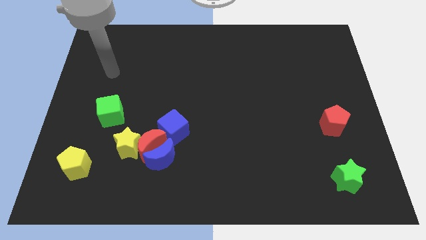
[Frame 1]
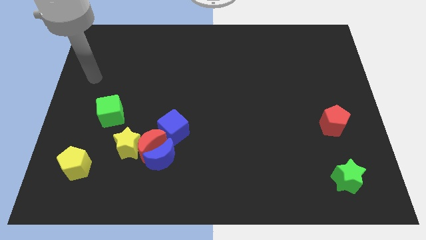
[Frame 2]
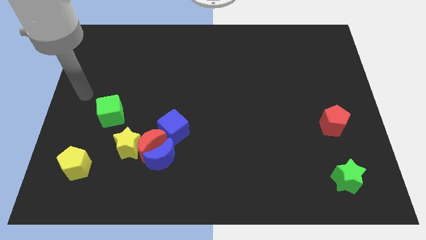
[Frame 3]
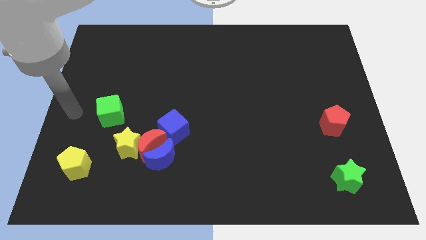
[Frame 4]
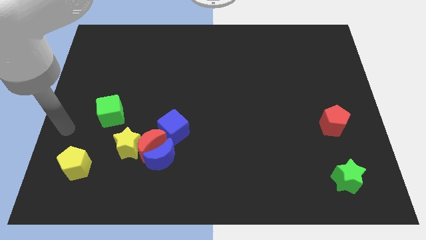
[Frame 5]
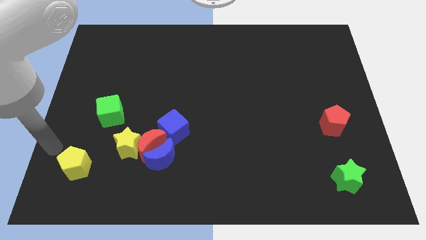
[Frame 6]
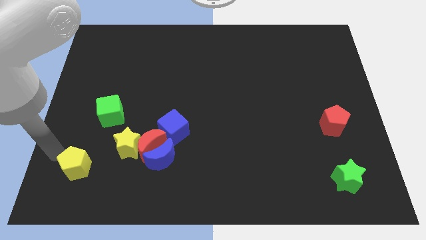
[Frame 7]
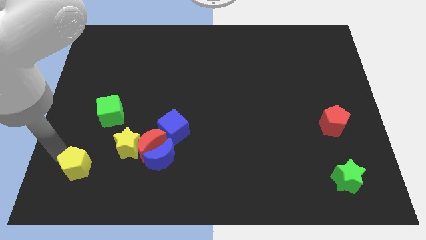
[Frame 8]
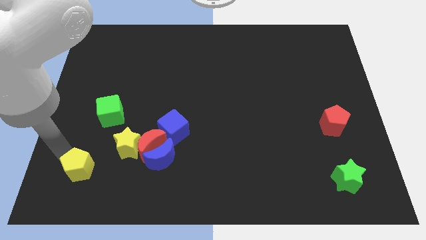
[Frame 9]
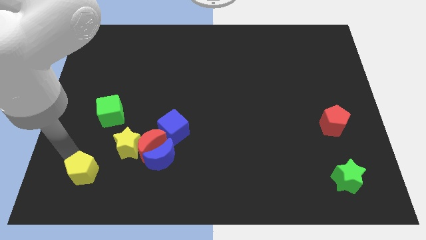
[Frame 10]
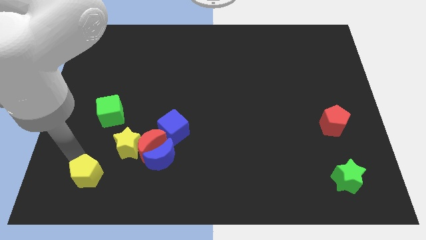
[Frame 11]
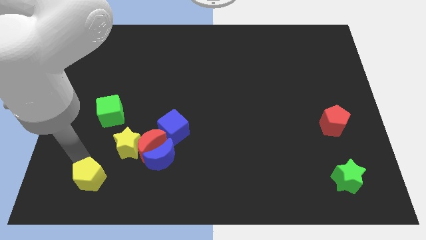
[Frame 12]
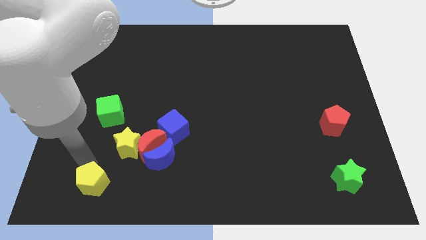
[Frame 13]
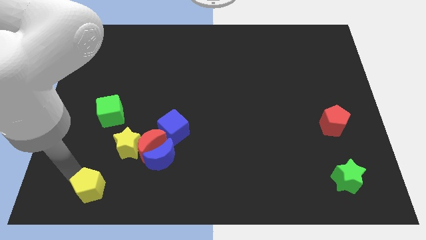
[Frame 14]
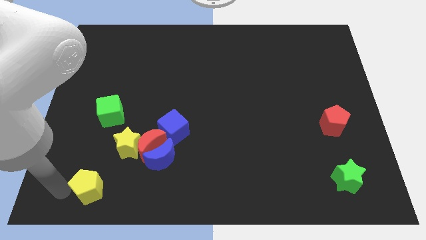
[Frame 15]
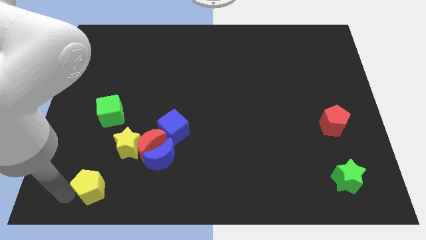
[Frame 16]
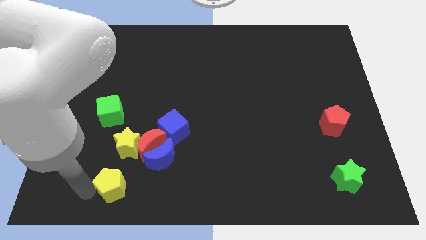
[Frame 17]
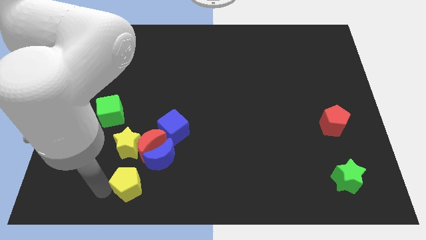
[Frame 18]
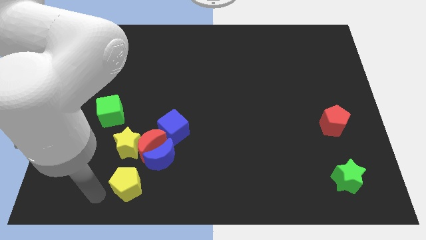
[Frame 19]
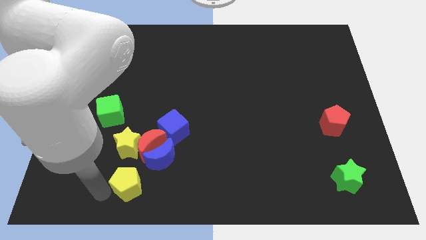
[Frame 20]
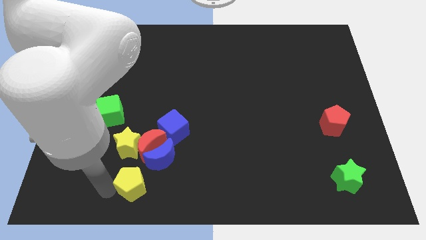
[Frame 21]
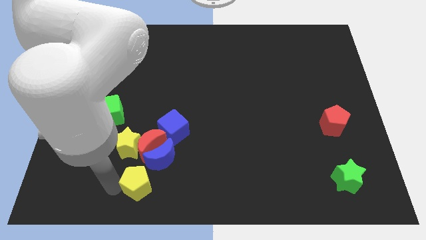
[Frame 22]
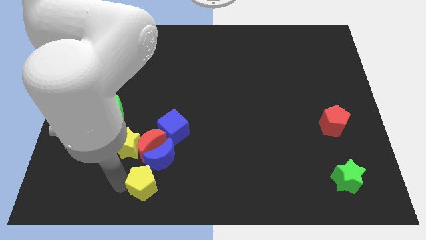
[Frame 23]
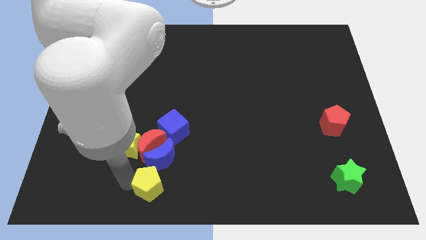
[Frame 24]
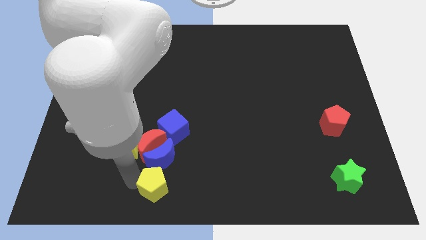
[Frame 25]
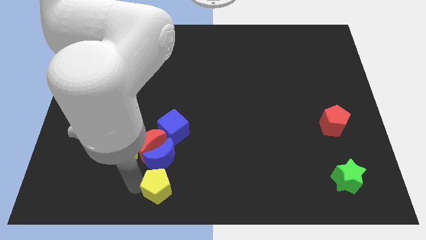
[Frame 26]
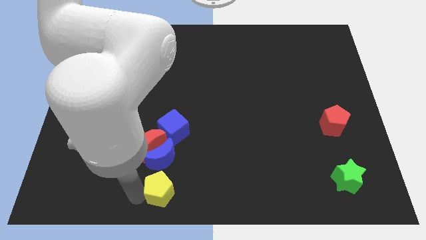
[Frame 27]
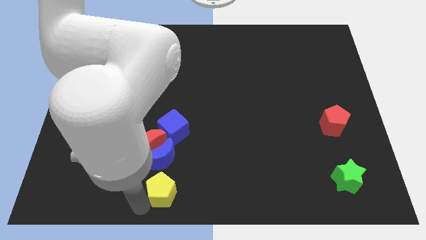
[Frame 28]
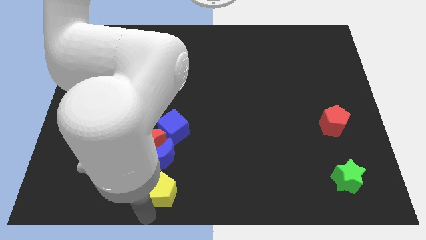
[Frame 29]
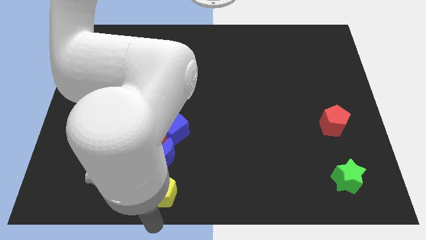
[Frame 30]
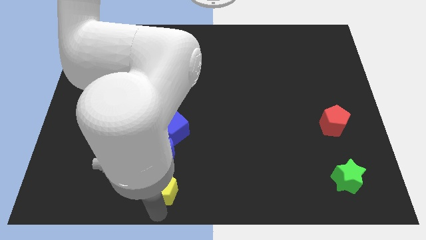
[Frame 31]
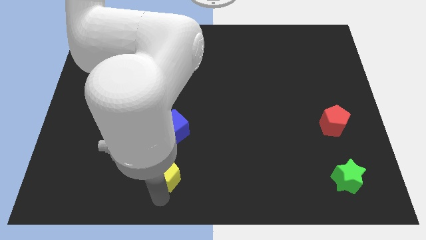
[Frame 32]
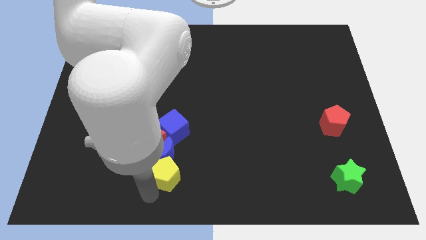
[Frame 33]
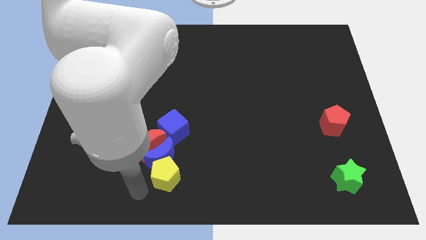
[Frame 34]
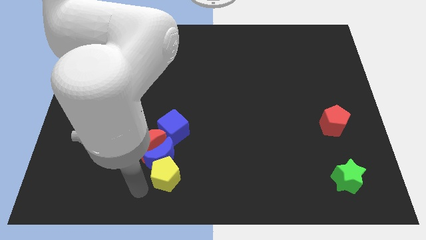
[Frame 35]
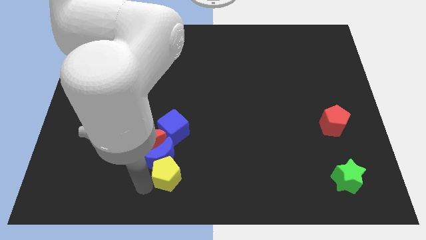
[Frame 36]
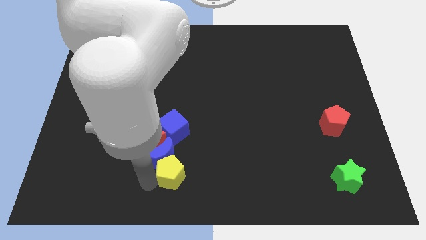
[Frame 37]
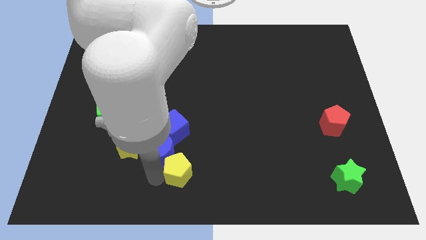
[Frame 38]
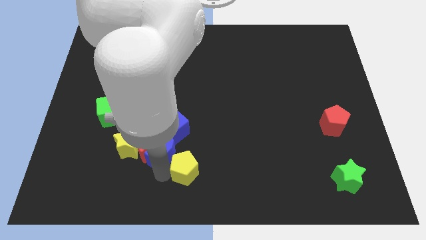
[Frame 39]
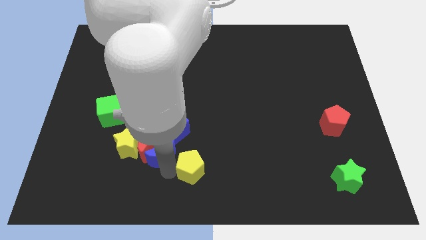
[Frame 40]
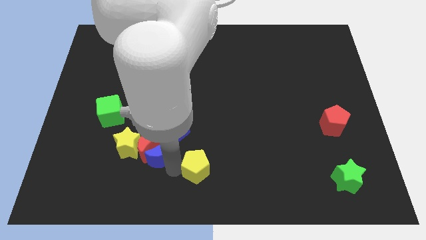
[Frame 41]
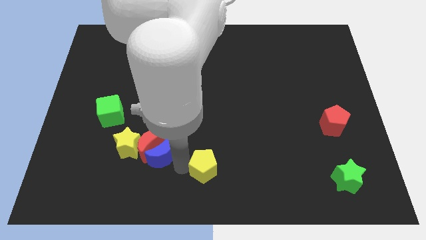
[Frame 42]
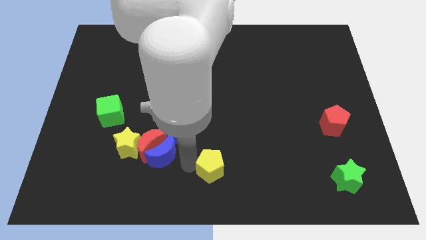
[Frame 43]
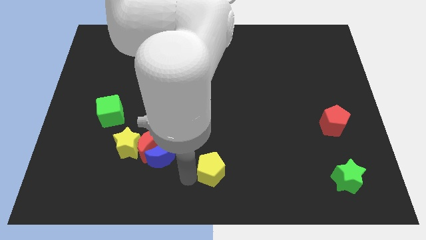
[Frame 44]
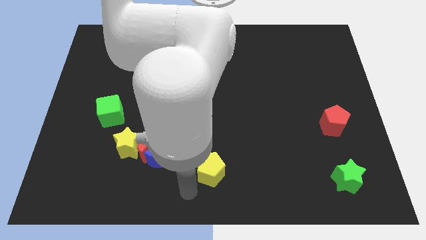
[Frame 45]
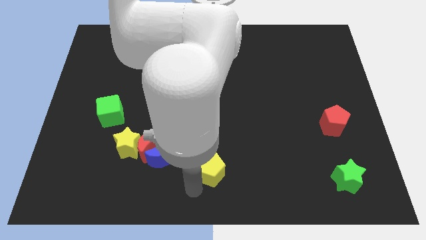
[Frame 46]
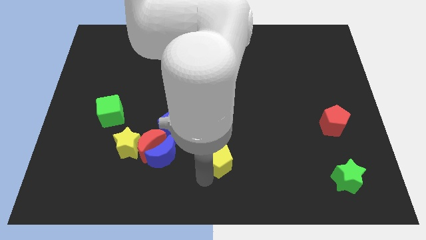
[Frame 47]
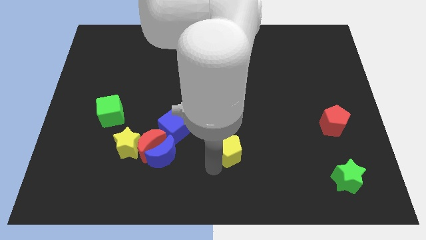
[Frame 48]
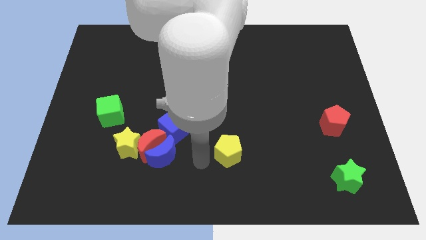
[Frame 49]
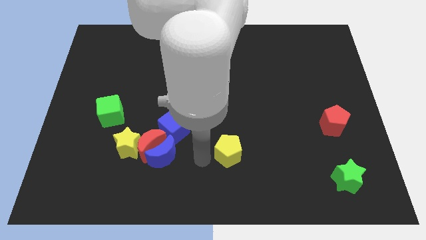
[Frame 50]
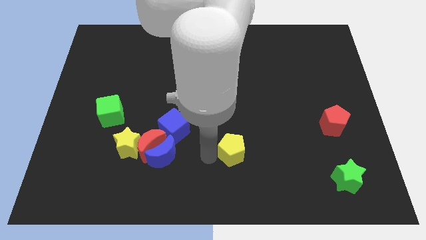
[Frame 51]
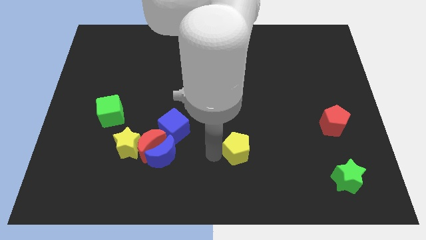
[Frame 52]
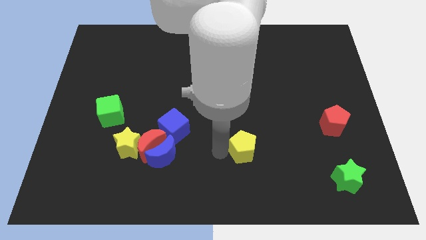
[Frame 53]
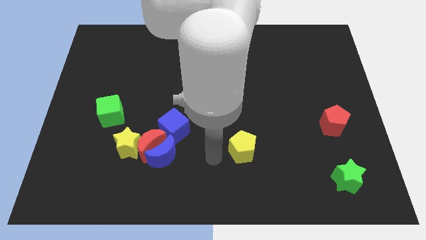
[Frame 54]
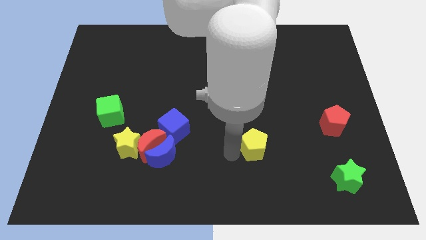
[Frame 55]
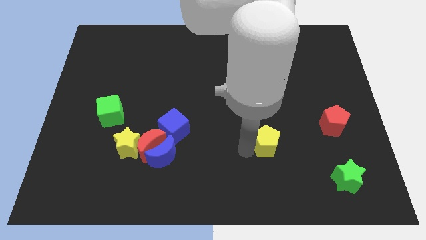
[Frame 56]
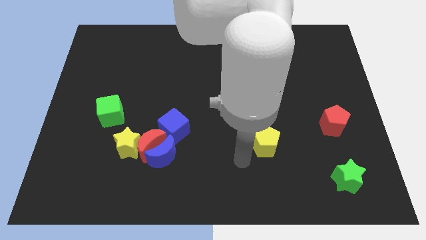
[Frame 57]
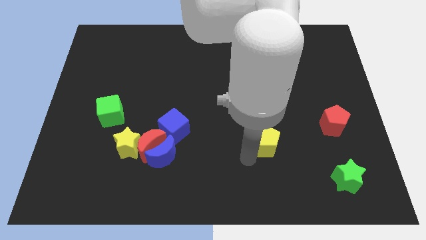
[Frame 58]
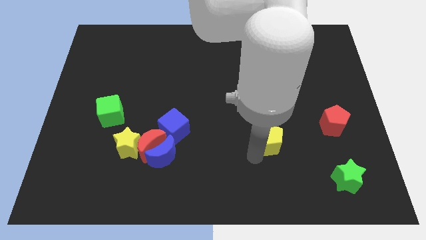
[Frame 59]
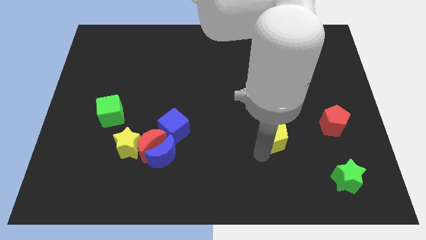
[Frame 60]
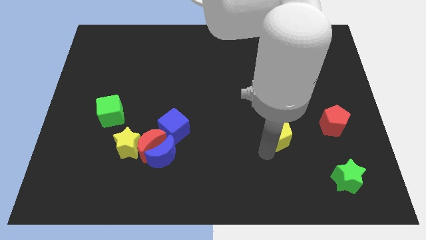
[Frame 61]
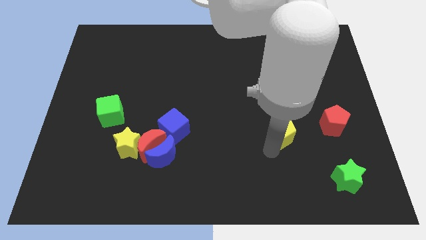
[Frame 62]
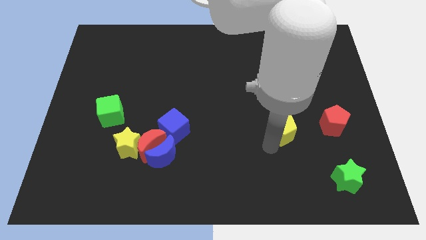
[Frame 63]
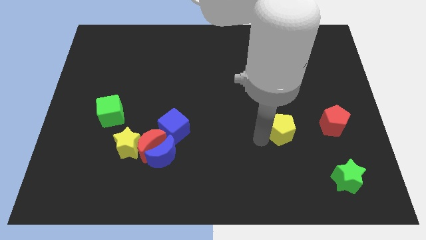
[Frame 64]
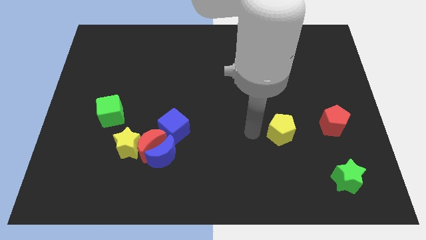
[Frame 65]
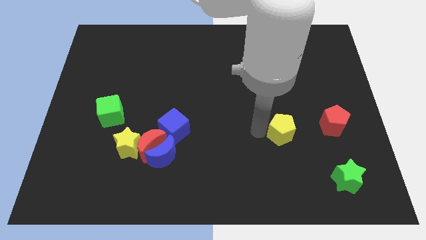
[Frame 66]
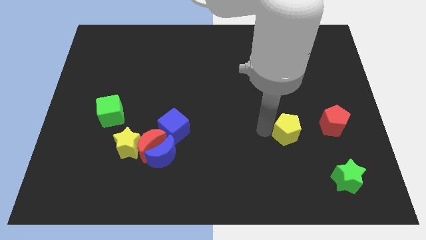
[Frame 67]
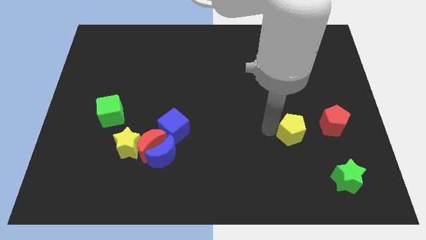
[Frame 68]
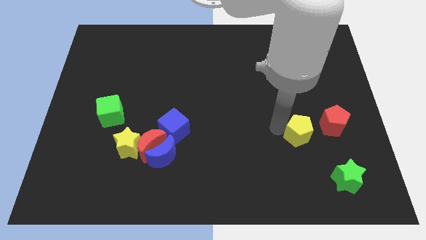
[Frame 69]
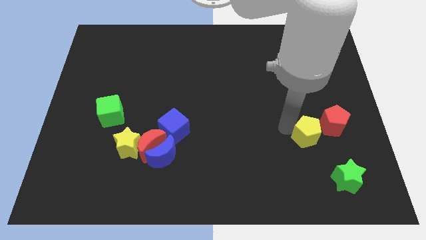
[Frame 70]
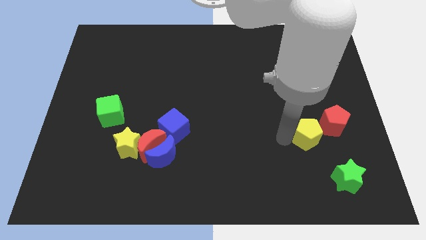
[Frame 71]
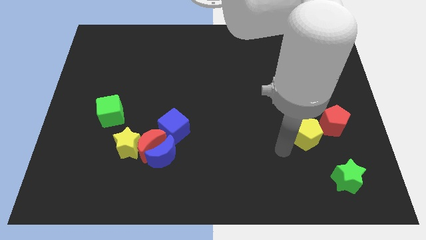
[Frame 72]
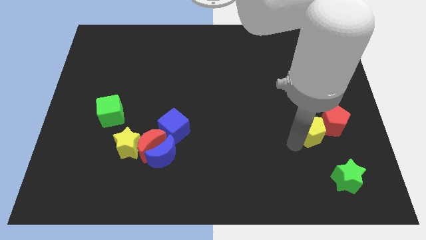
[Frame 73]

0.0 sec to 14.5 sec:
move the yellow pentagon to the red pentagon
